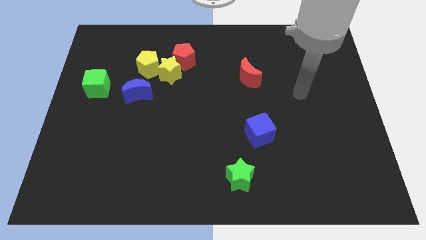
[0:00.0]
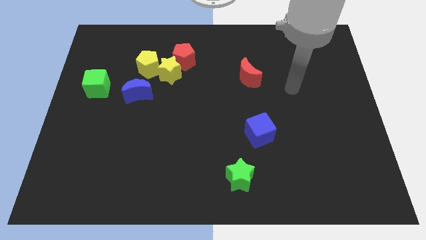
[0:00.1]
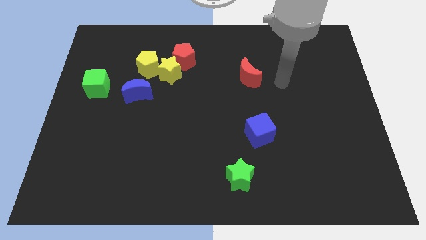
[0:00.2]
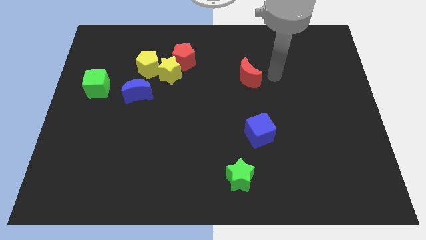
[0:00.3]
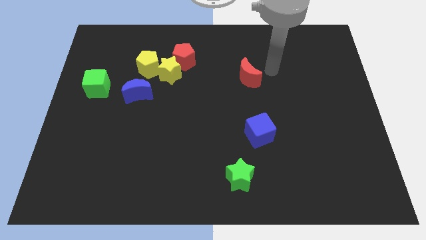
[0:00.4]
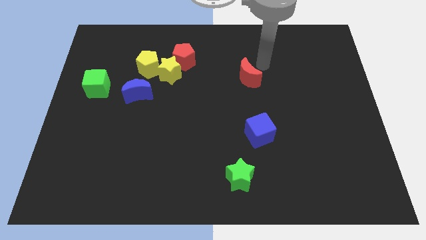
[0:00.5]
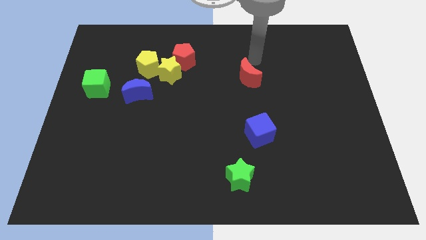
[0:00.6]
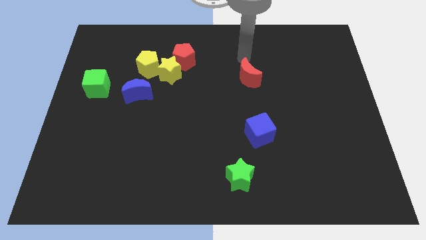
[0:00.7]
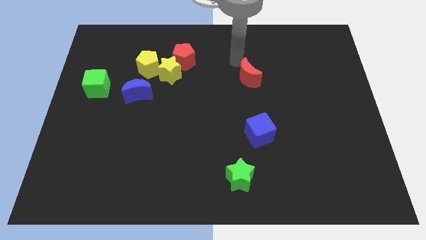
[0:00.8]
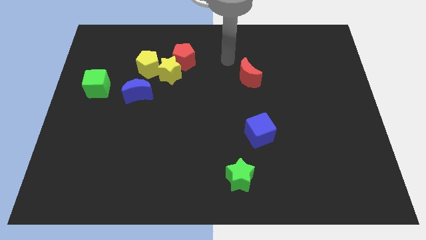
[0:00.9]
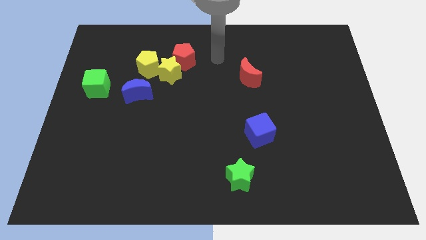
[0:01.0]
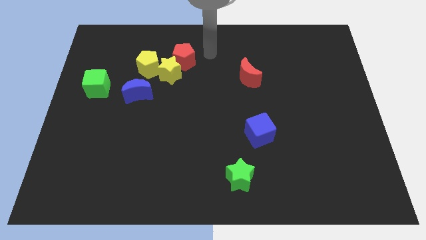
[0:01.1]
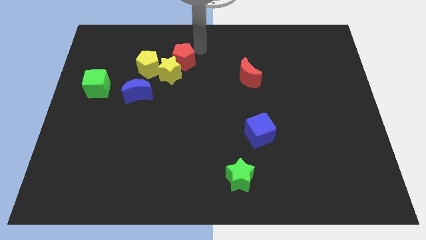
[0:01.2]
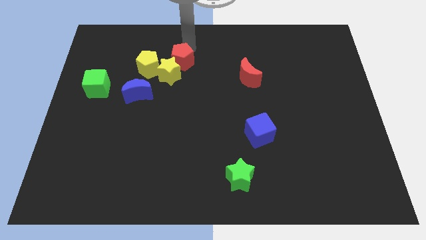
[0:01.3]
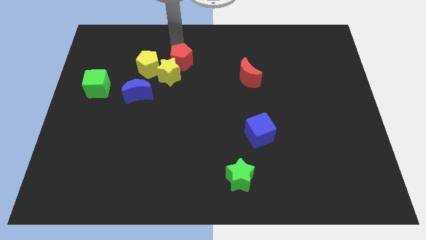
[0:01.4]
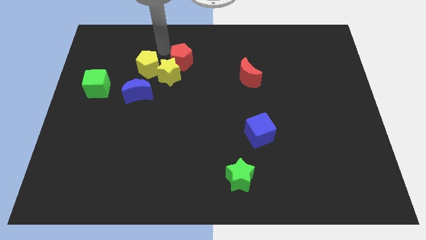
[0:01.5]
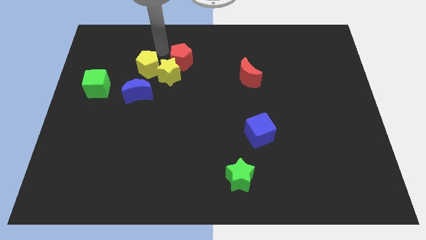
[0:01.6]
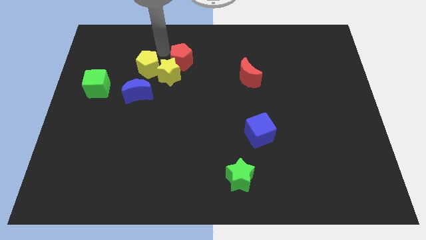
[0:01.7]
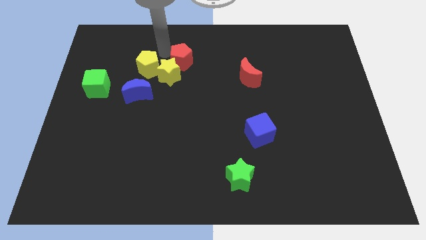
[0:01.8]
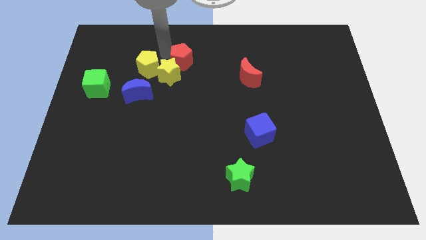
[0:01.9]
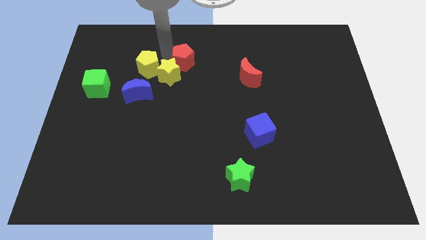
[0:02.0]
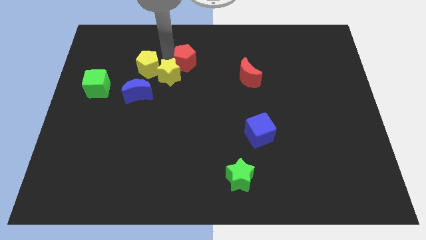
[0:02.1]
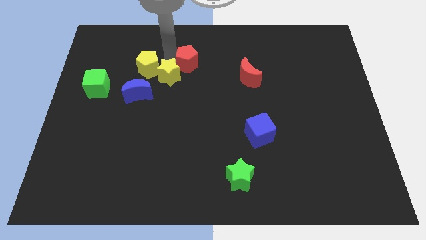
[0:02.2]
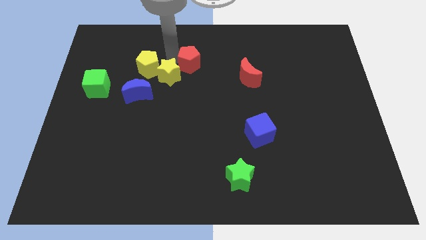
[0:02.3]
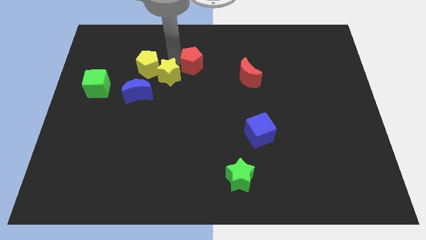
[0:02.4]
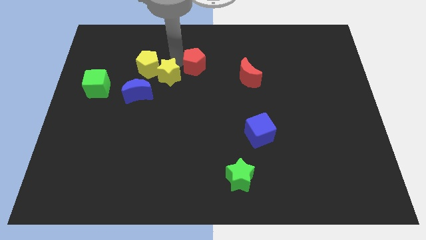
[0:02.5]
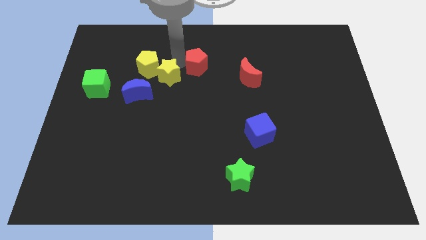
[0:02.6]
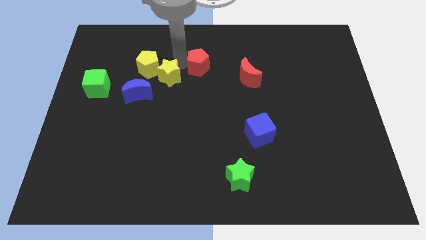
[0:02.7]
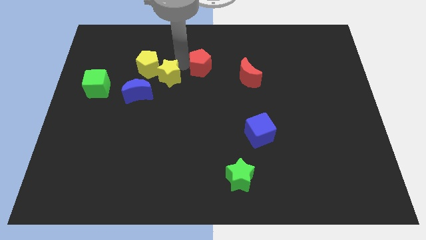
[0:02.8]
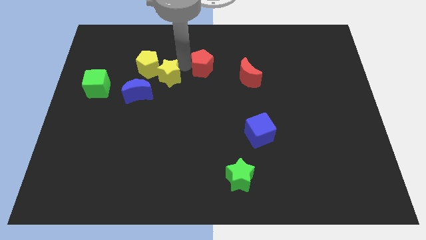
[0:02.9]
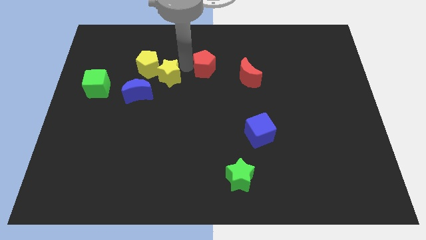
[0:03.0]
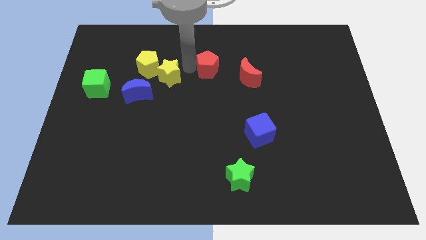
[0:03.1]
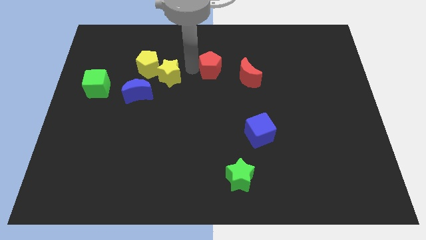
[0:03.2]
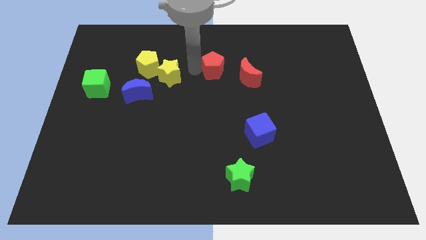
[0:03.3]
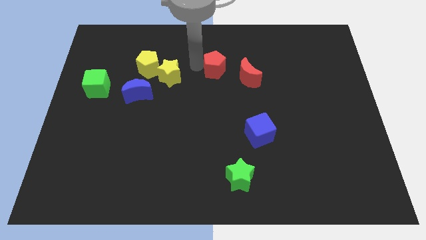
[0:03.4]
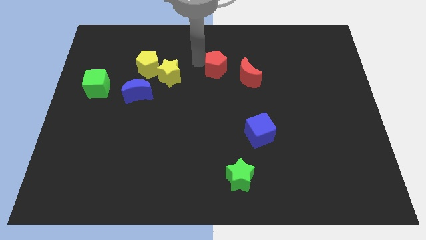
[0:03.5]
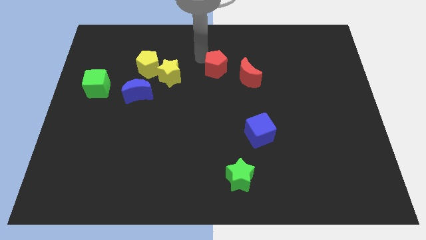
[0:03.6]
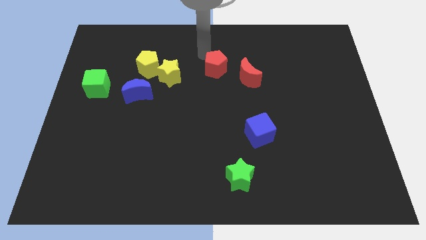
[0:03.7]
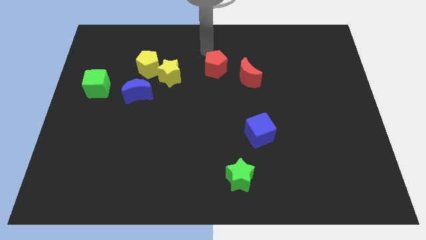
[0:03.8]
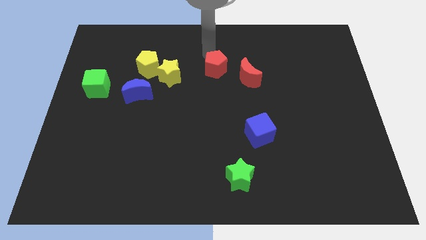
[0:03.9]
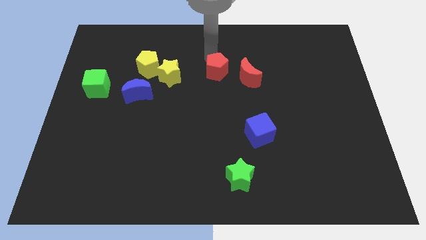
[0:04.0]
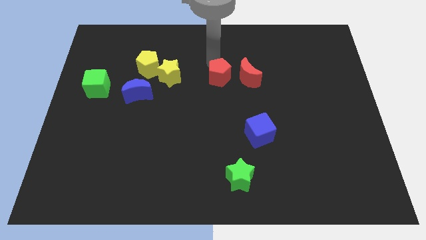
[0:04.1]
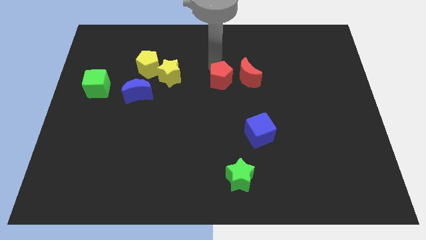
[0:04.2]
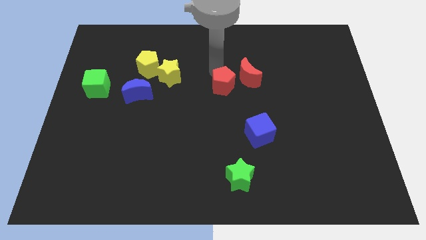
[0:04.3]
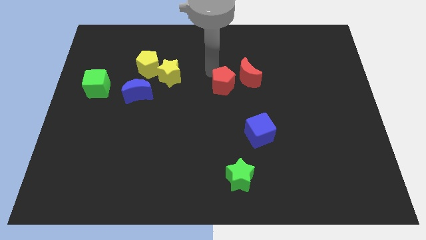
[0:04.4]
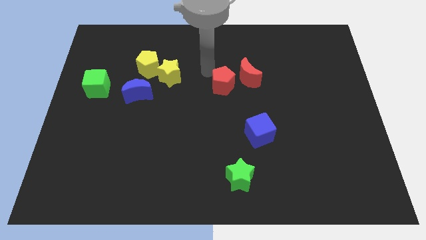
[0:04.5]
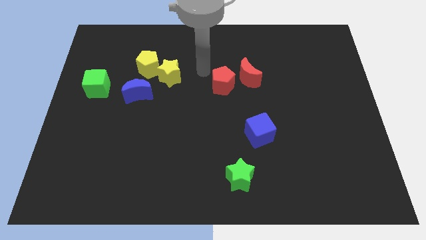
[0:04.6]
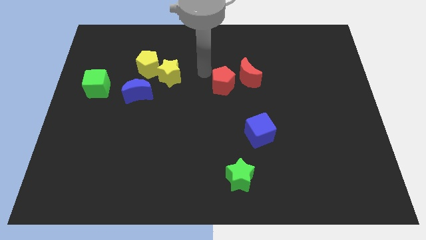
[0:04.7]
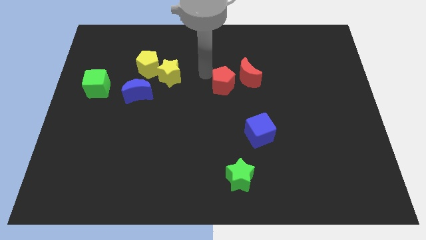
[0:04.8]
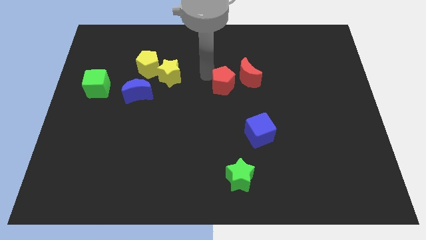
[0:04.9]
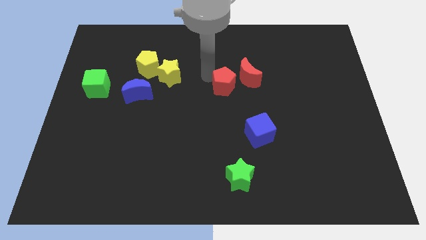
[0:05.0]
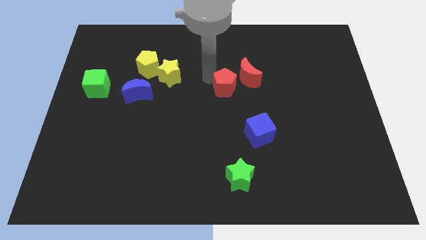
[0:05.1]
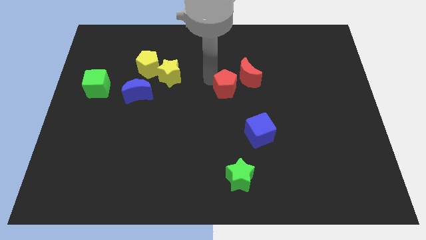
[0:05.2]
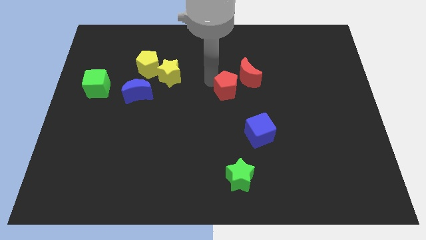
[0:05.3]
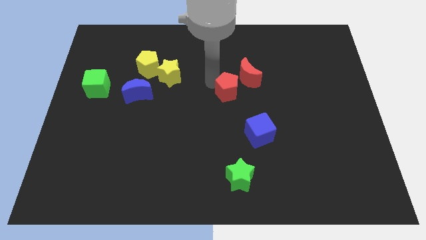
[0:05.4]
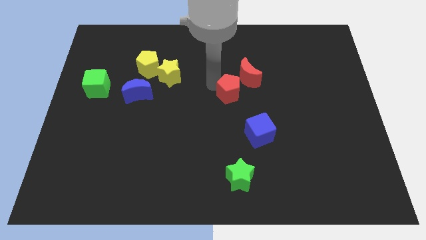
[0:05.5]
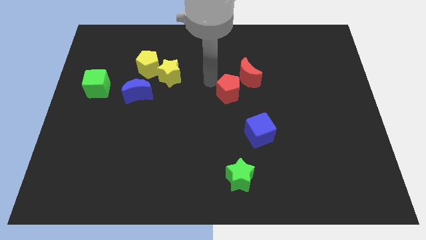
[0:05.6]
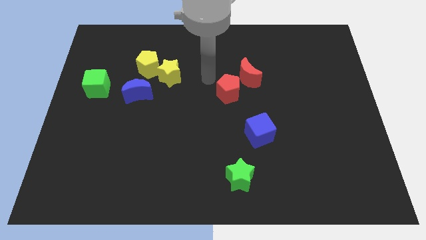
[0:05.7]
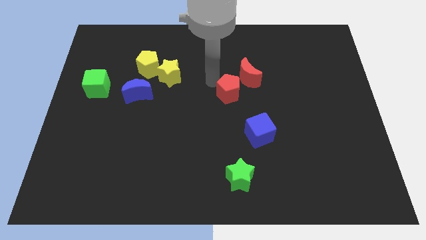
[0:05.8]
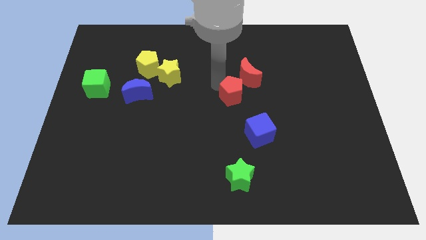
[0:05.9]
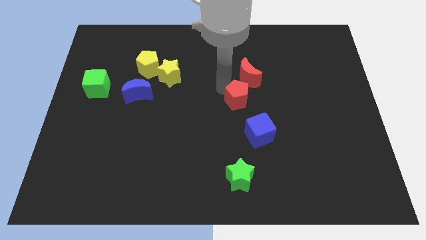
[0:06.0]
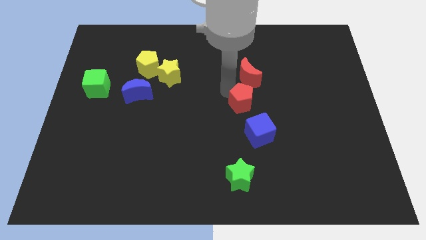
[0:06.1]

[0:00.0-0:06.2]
slide the red pentagon down and right diagonally

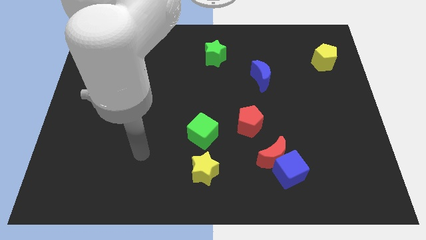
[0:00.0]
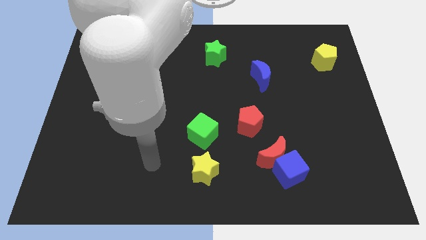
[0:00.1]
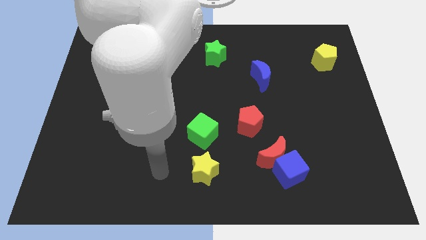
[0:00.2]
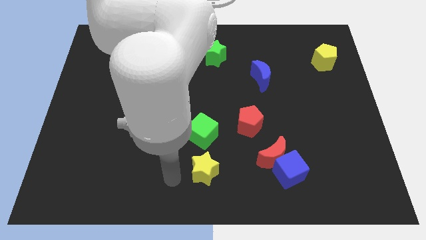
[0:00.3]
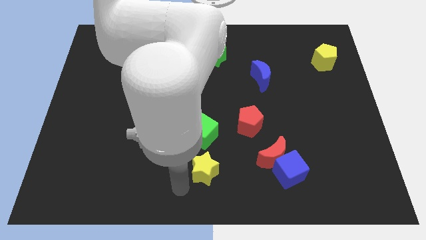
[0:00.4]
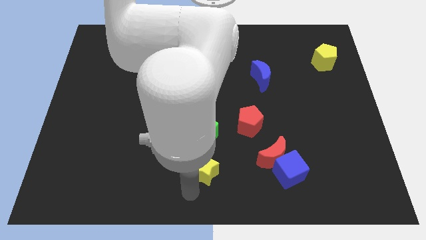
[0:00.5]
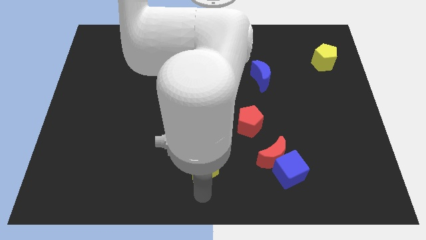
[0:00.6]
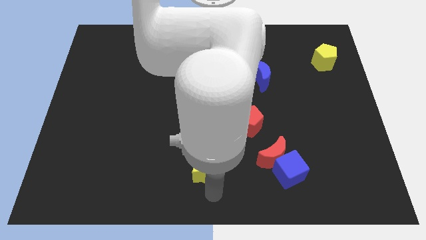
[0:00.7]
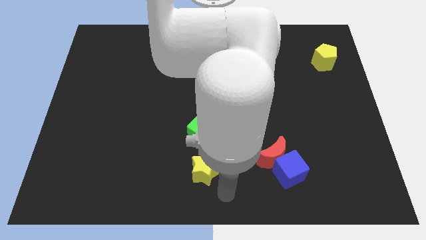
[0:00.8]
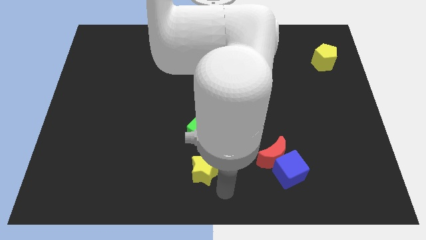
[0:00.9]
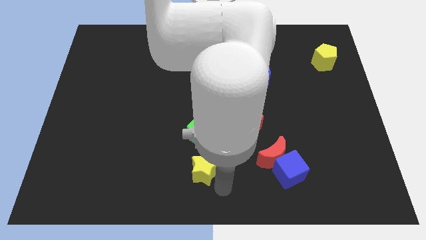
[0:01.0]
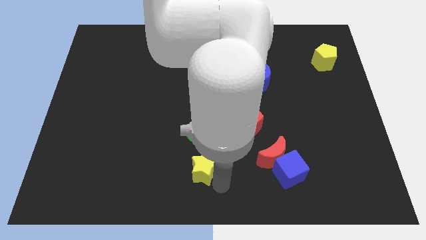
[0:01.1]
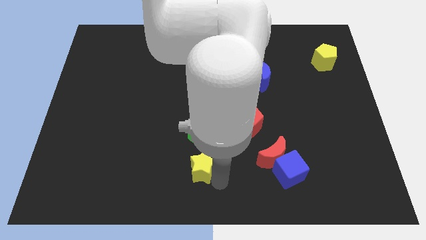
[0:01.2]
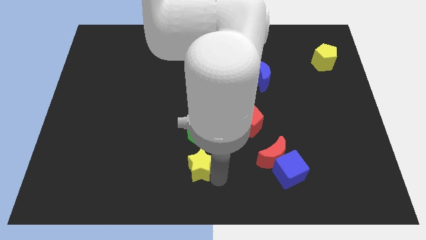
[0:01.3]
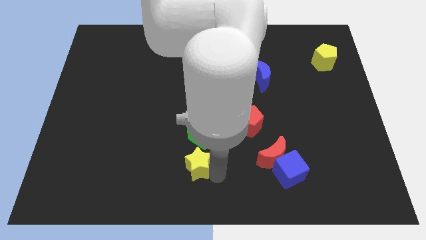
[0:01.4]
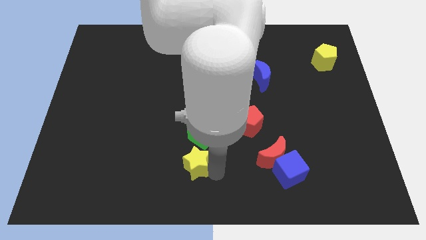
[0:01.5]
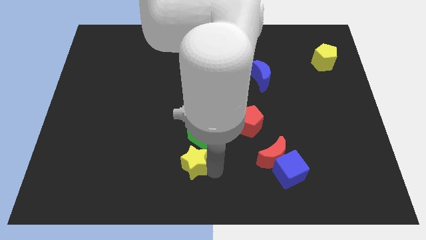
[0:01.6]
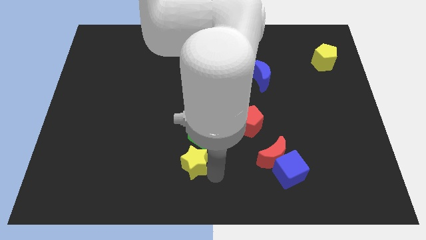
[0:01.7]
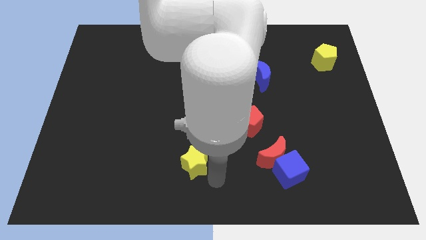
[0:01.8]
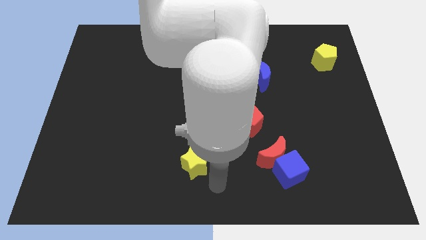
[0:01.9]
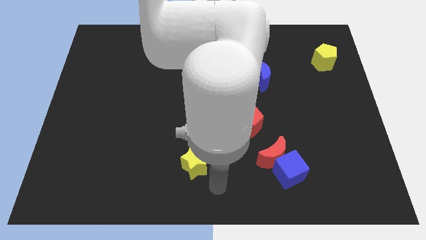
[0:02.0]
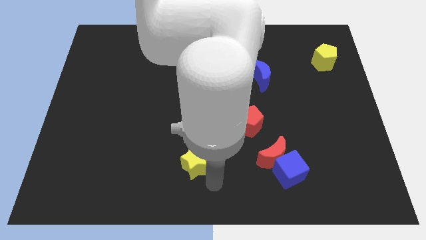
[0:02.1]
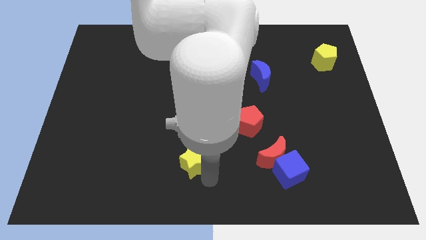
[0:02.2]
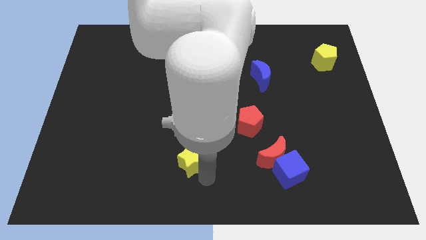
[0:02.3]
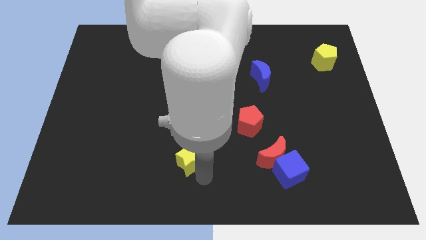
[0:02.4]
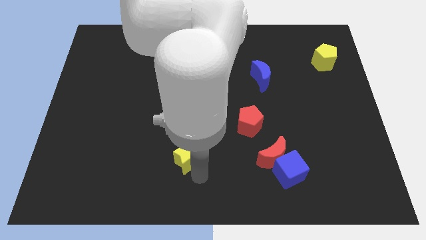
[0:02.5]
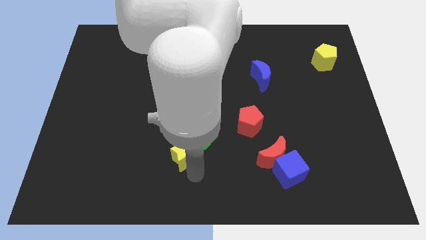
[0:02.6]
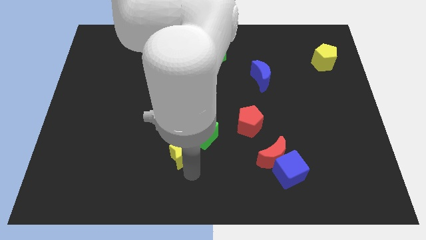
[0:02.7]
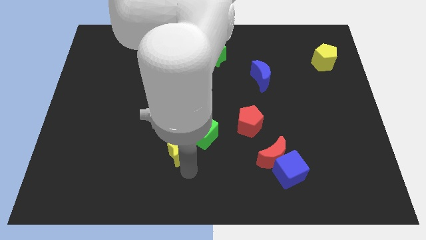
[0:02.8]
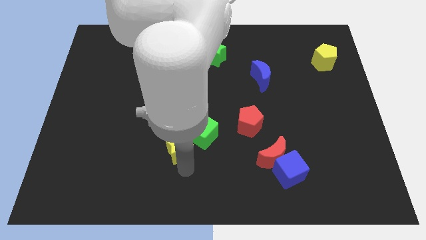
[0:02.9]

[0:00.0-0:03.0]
slightly slide the yellow star up and to the left
